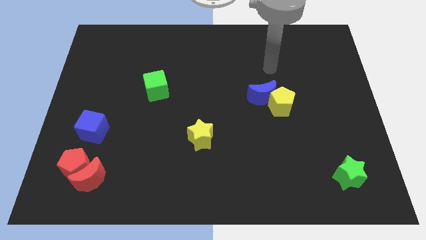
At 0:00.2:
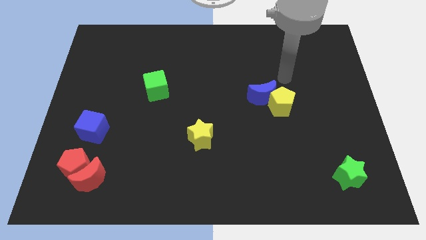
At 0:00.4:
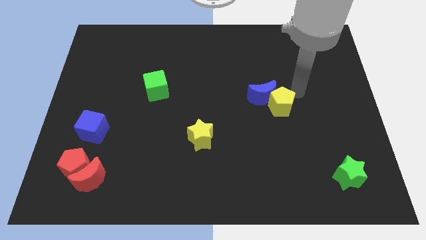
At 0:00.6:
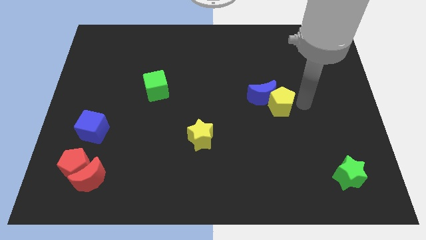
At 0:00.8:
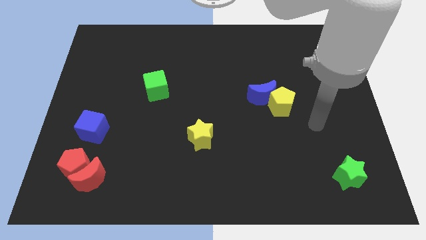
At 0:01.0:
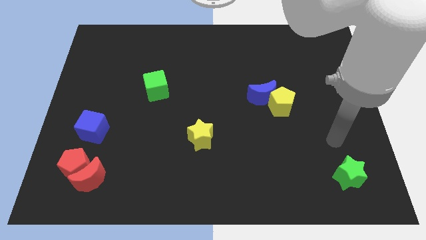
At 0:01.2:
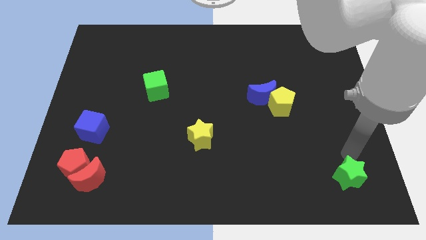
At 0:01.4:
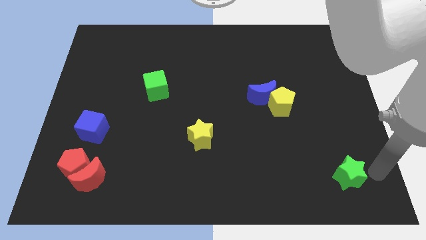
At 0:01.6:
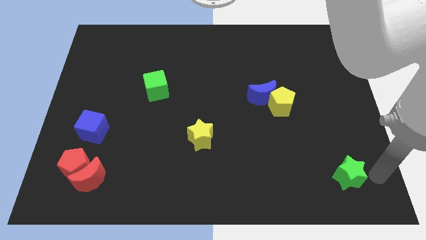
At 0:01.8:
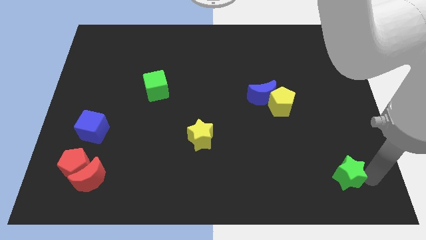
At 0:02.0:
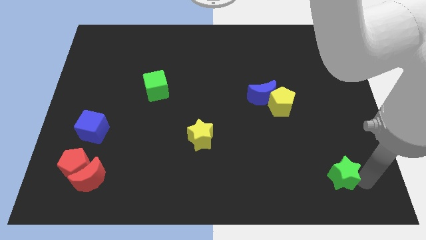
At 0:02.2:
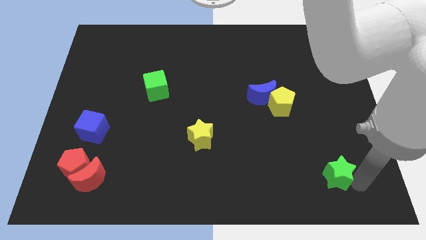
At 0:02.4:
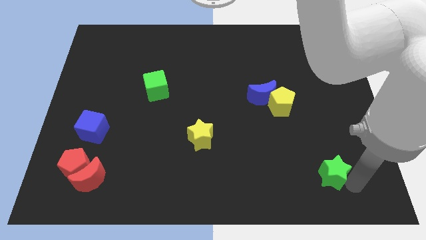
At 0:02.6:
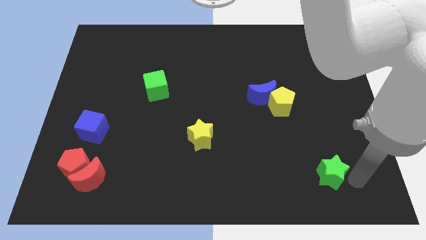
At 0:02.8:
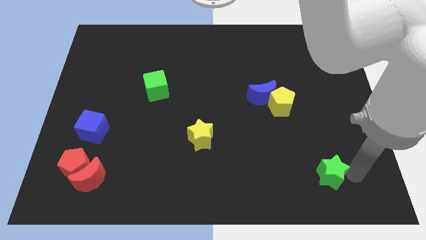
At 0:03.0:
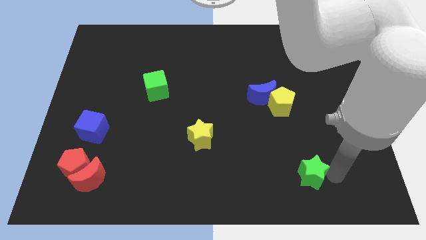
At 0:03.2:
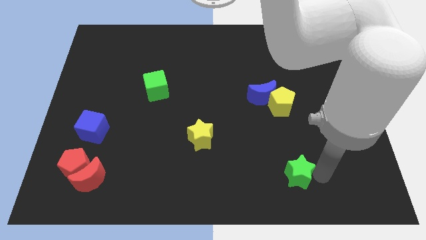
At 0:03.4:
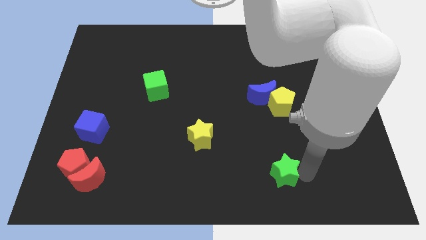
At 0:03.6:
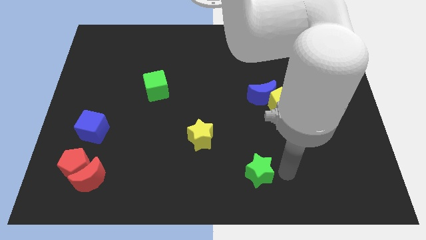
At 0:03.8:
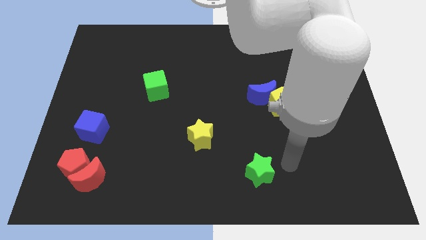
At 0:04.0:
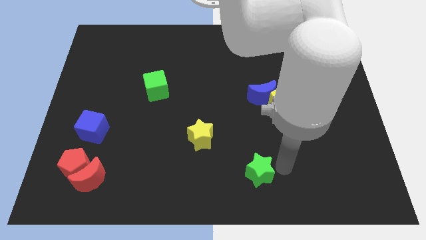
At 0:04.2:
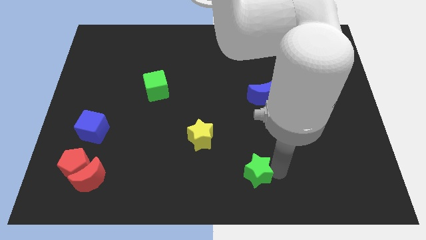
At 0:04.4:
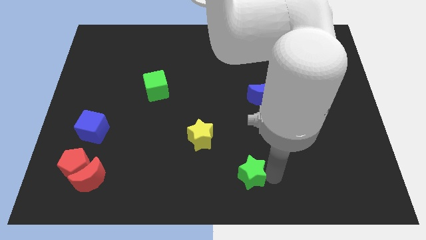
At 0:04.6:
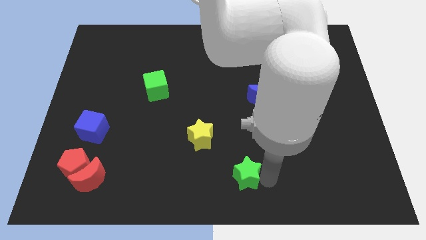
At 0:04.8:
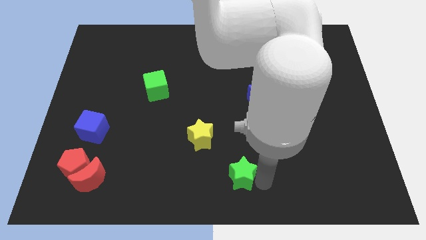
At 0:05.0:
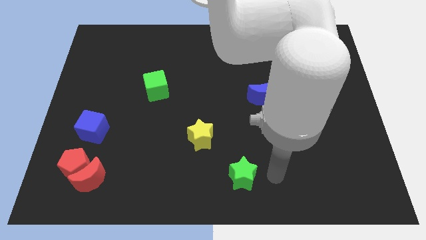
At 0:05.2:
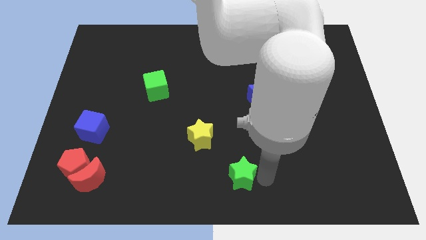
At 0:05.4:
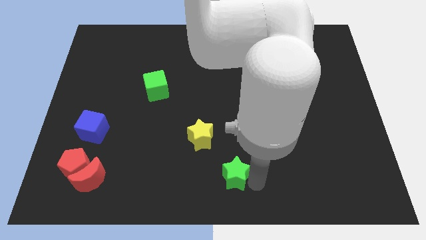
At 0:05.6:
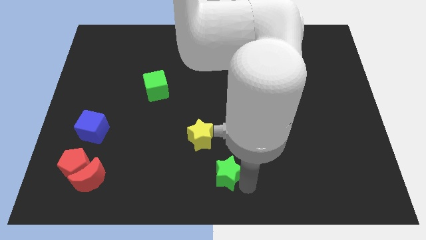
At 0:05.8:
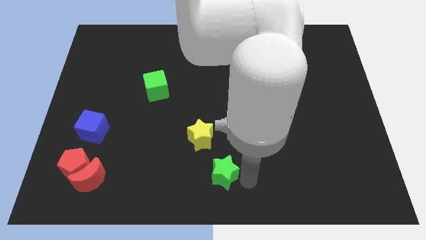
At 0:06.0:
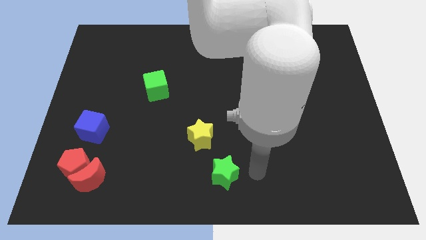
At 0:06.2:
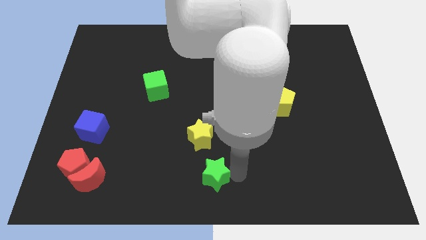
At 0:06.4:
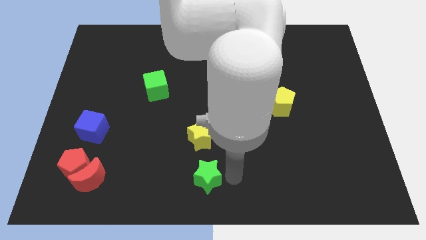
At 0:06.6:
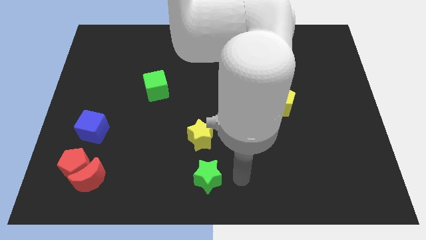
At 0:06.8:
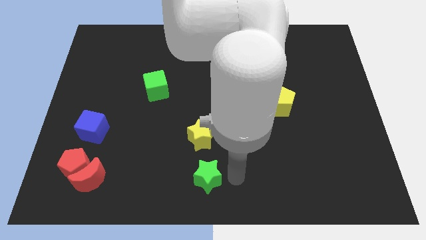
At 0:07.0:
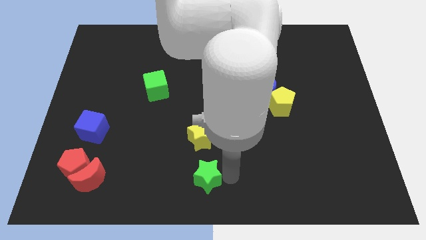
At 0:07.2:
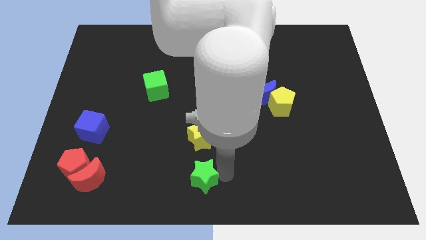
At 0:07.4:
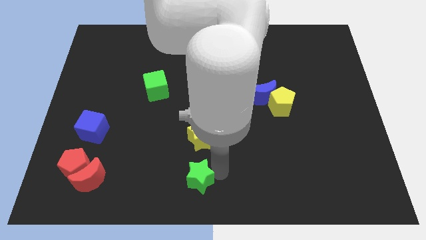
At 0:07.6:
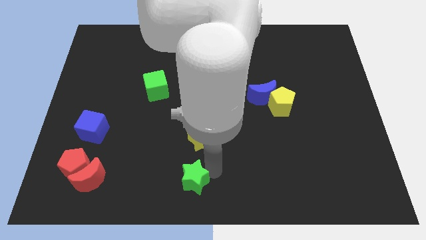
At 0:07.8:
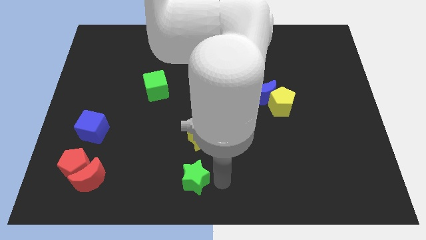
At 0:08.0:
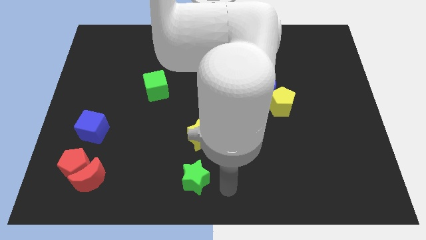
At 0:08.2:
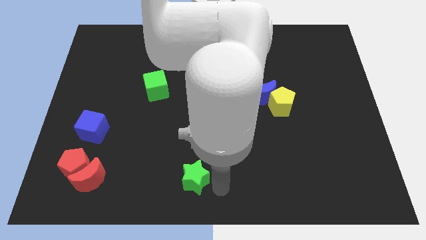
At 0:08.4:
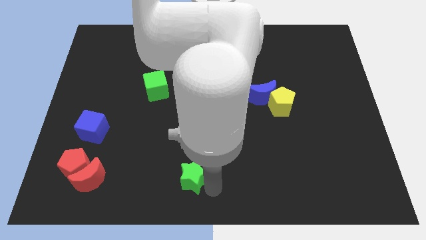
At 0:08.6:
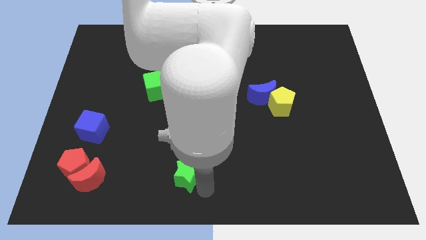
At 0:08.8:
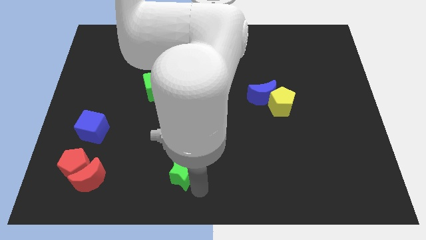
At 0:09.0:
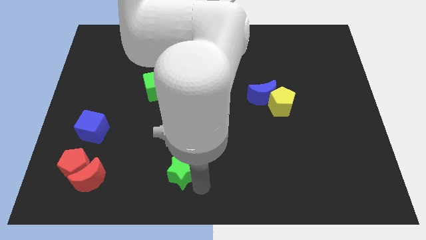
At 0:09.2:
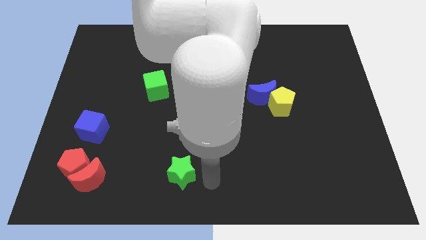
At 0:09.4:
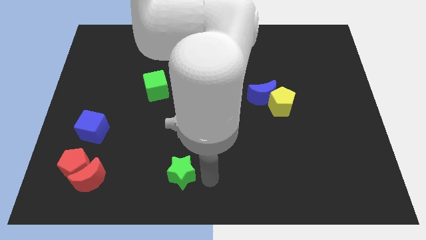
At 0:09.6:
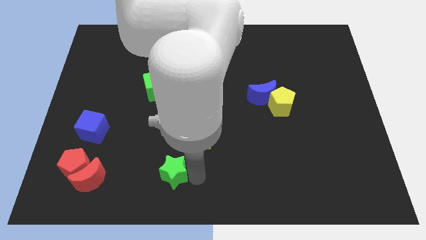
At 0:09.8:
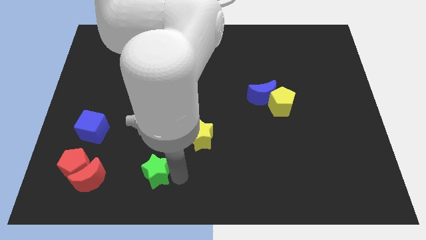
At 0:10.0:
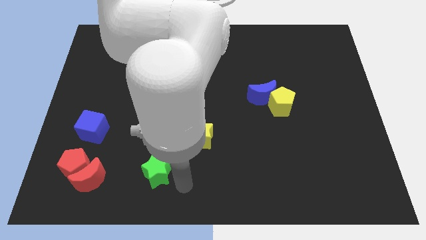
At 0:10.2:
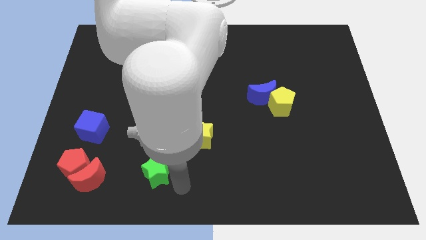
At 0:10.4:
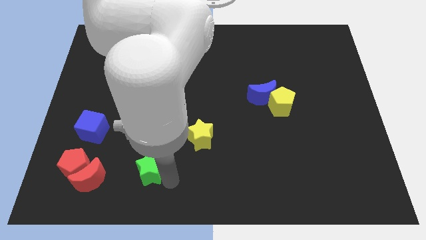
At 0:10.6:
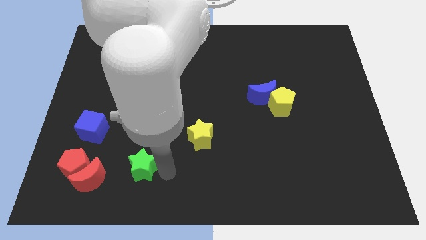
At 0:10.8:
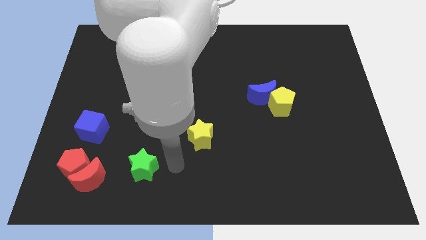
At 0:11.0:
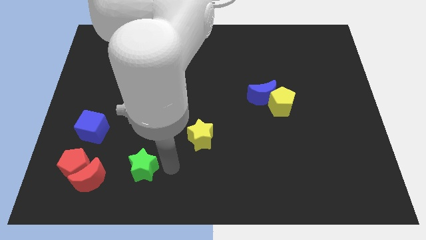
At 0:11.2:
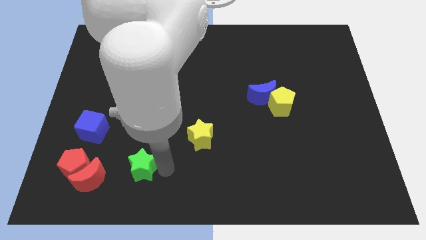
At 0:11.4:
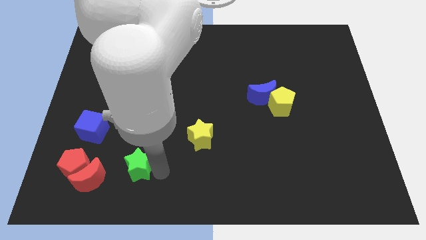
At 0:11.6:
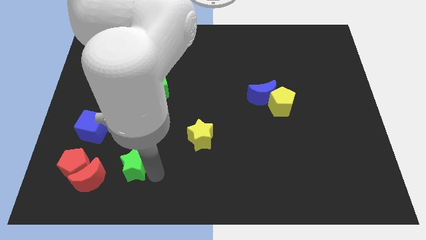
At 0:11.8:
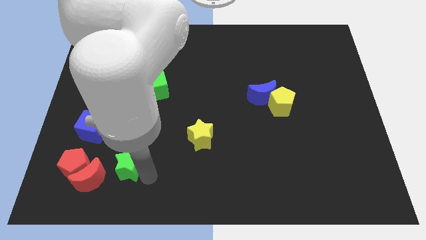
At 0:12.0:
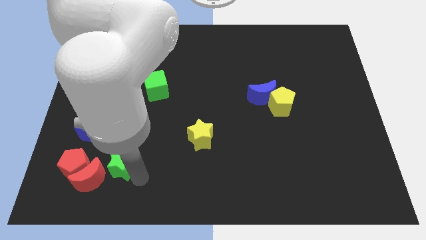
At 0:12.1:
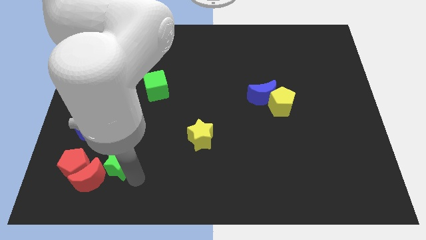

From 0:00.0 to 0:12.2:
move the green star towards the red moon
